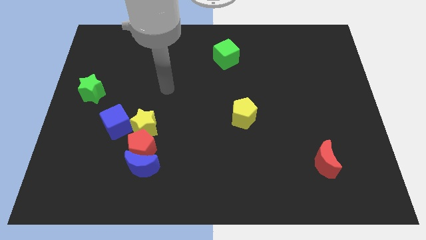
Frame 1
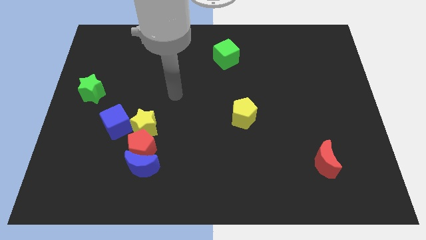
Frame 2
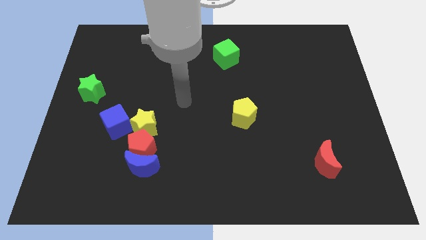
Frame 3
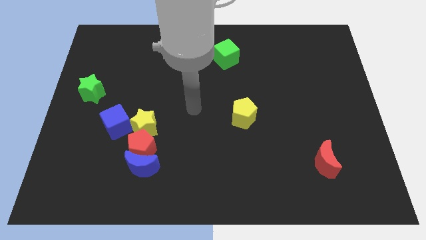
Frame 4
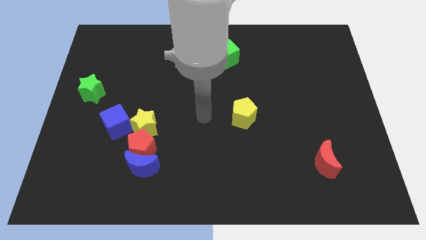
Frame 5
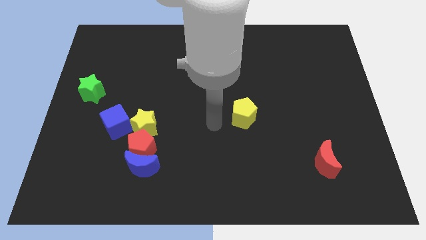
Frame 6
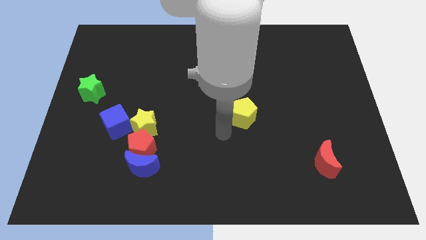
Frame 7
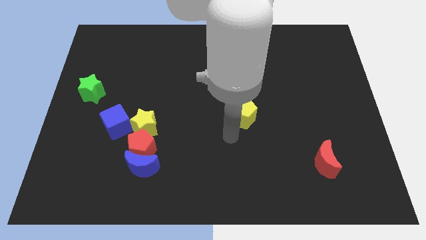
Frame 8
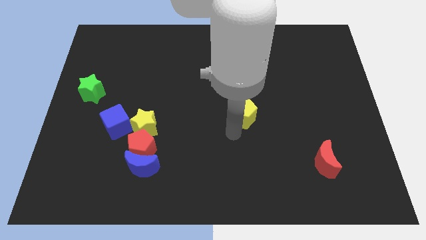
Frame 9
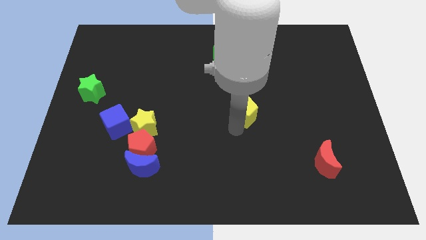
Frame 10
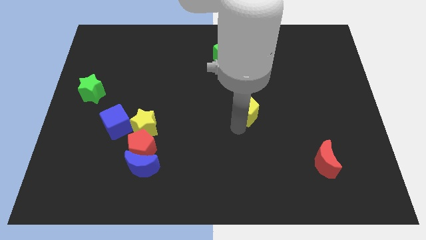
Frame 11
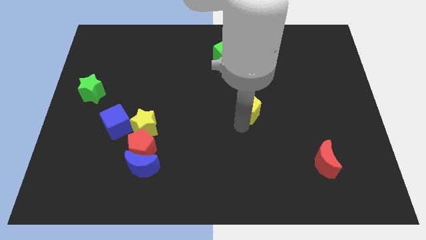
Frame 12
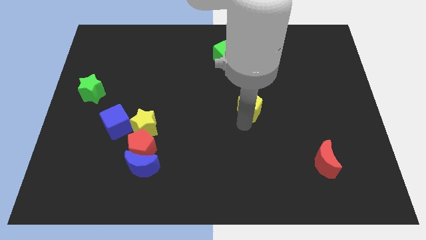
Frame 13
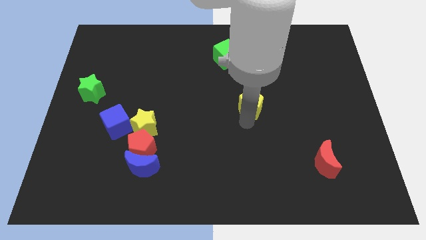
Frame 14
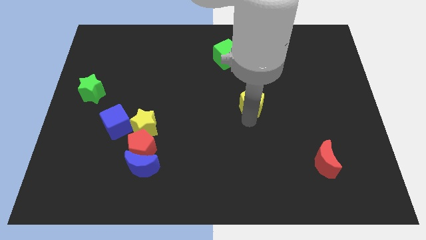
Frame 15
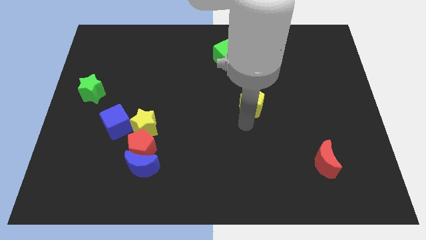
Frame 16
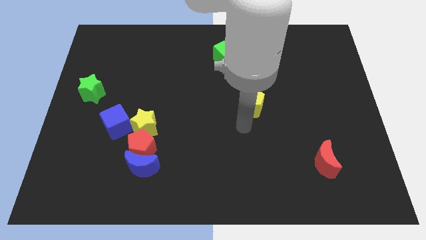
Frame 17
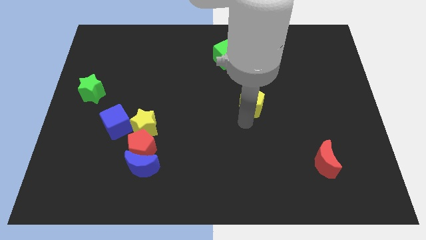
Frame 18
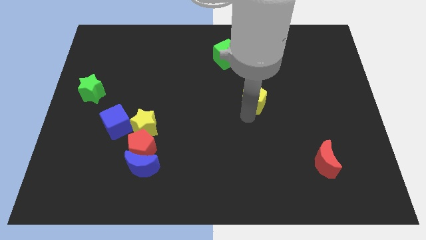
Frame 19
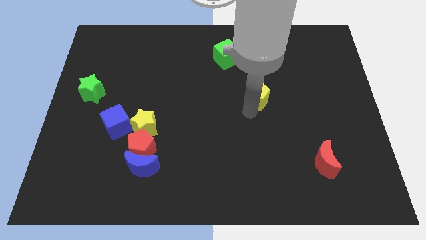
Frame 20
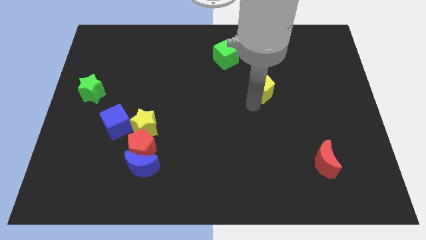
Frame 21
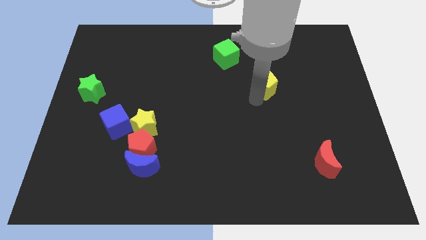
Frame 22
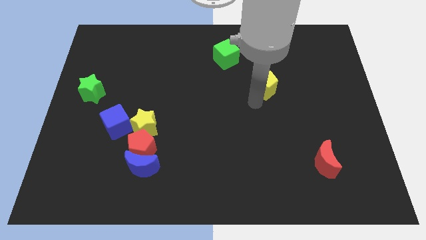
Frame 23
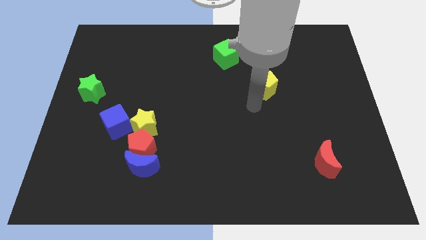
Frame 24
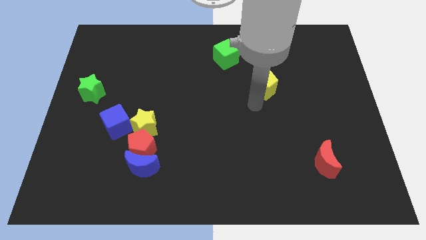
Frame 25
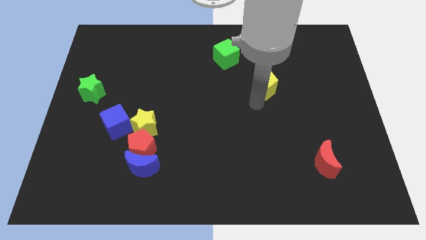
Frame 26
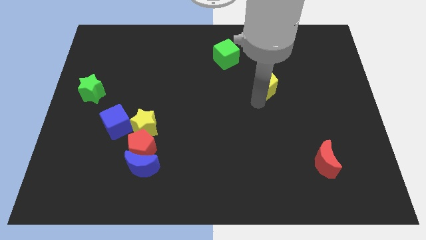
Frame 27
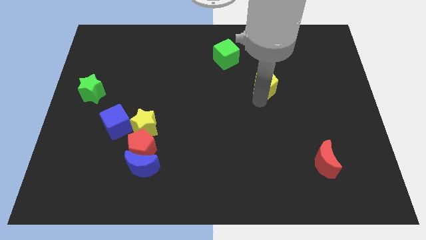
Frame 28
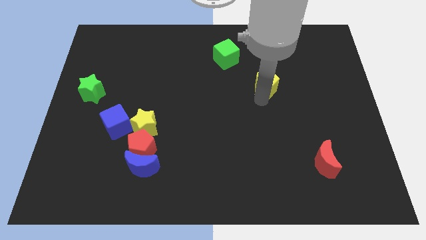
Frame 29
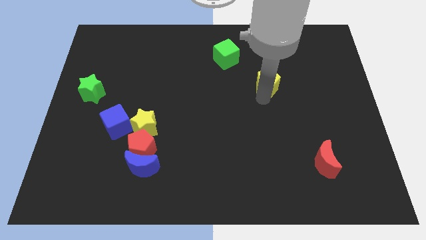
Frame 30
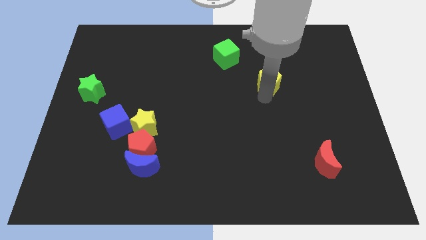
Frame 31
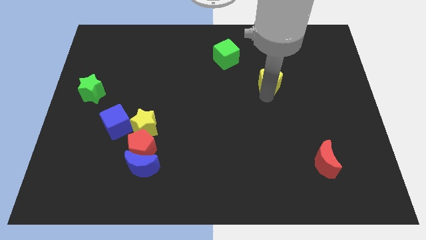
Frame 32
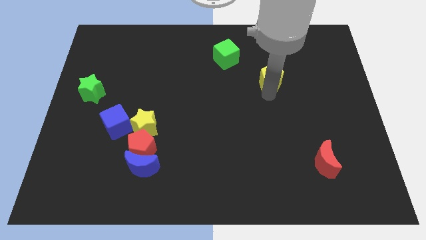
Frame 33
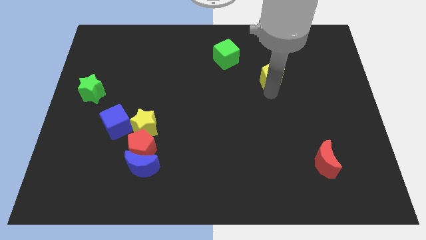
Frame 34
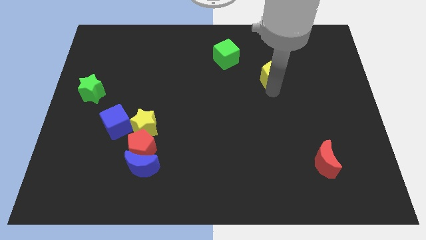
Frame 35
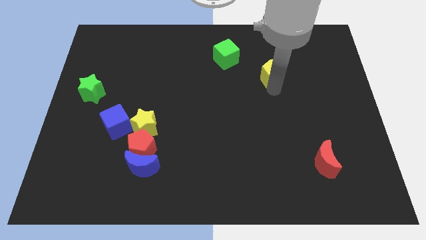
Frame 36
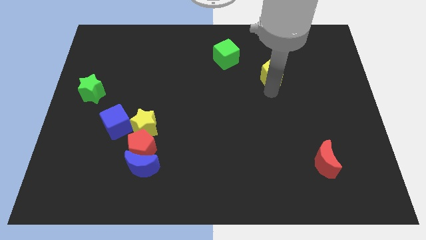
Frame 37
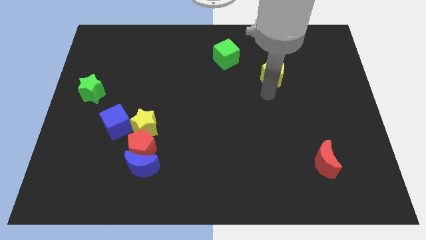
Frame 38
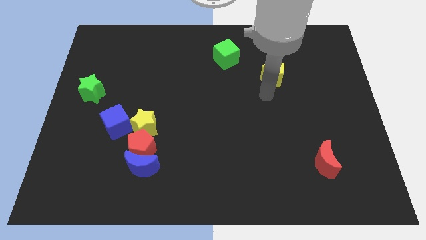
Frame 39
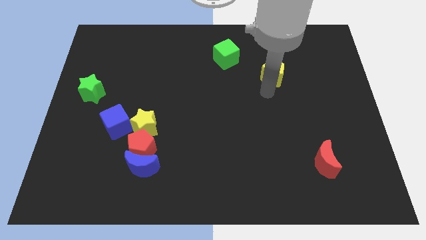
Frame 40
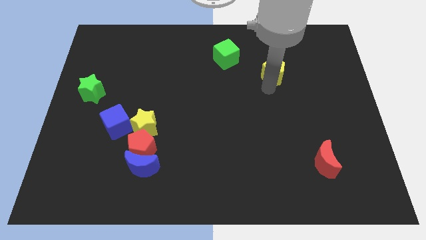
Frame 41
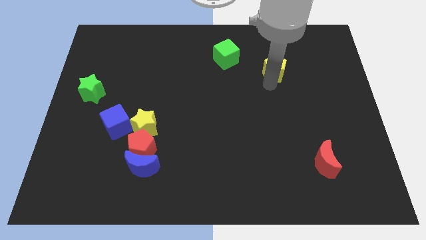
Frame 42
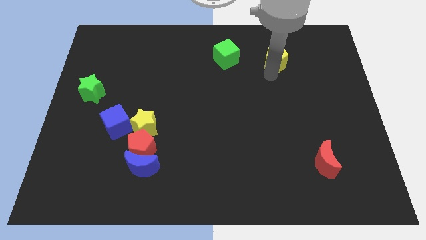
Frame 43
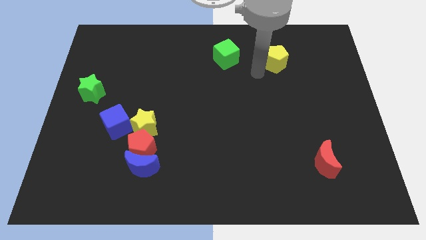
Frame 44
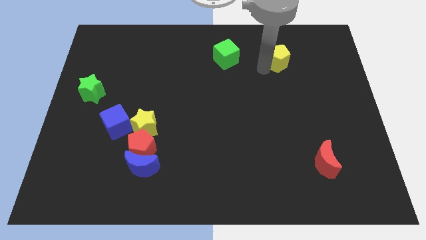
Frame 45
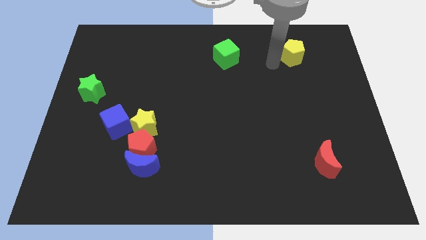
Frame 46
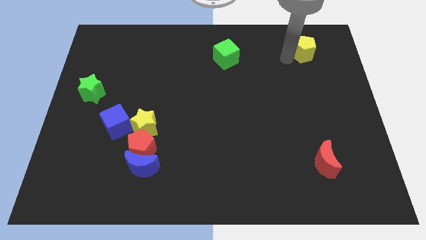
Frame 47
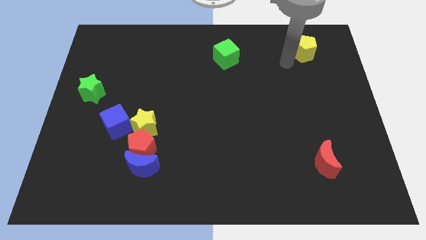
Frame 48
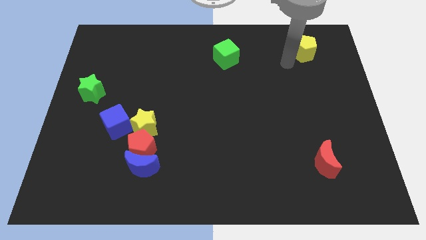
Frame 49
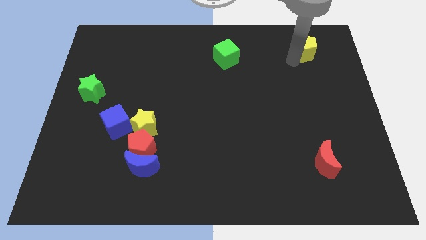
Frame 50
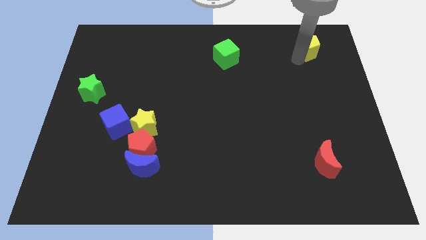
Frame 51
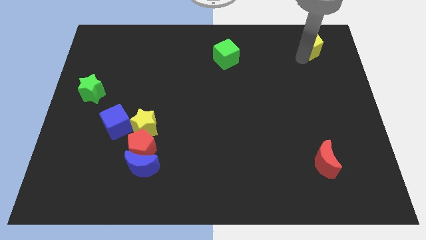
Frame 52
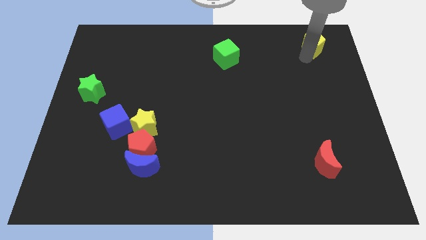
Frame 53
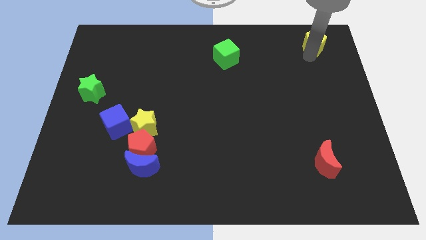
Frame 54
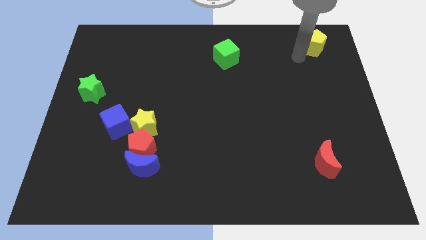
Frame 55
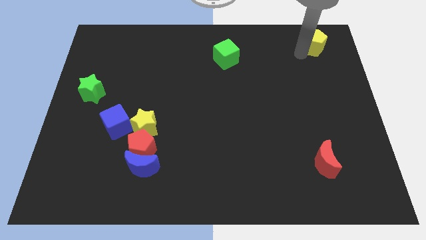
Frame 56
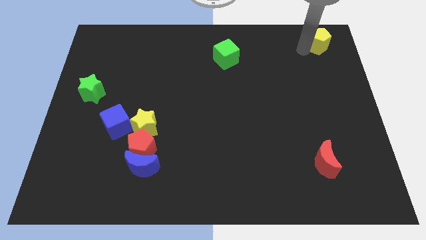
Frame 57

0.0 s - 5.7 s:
move the yellow pentagon to the top right corner

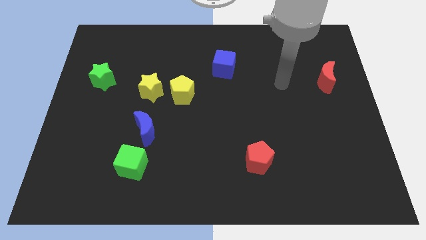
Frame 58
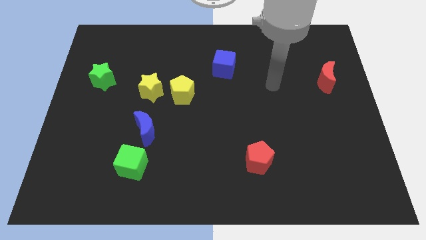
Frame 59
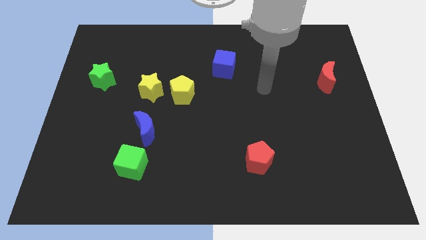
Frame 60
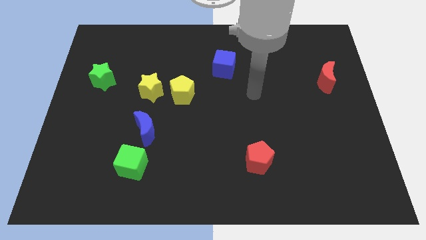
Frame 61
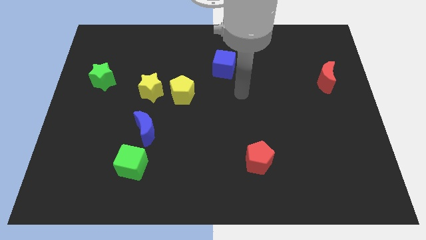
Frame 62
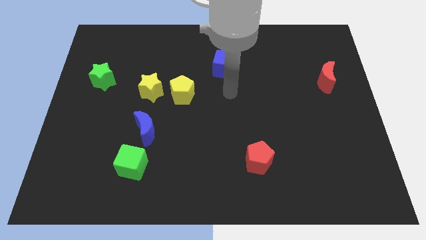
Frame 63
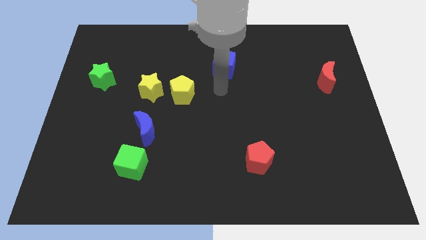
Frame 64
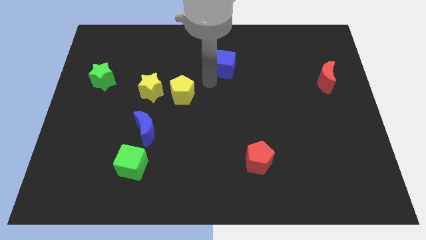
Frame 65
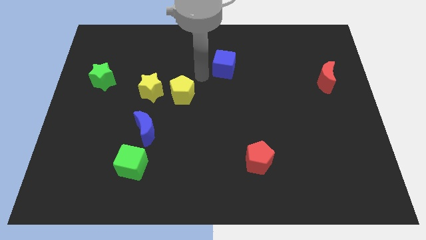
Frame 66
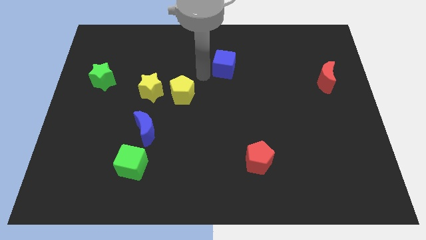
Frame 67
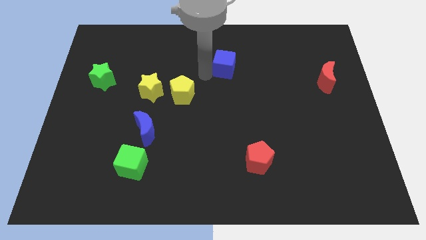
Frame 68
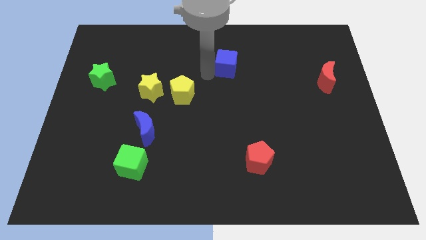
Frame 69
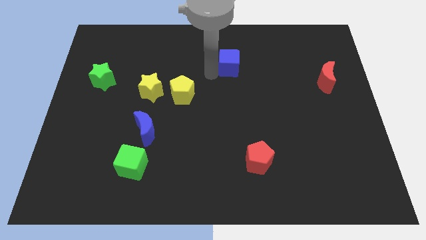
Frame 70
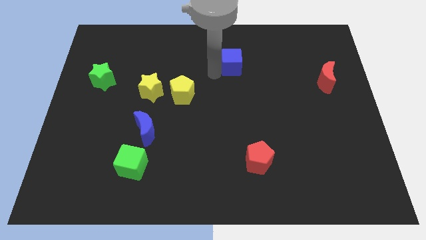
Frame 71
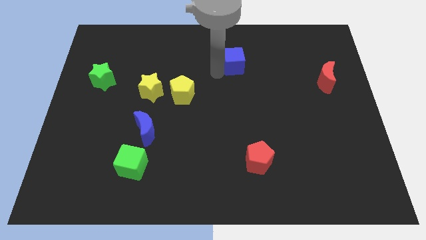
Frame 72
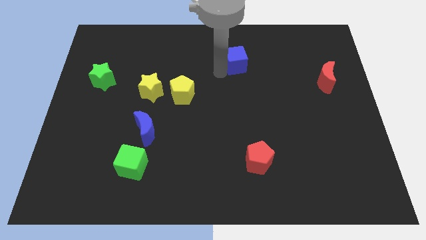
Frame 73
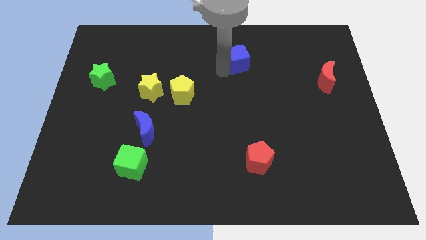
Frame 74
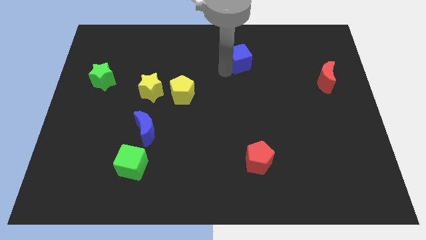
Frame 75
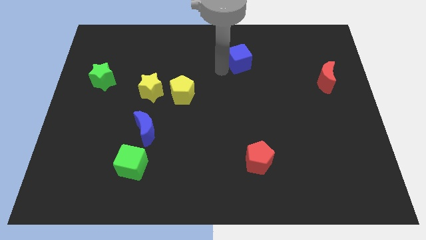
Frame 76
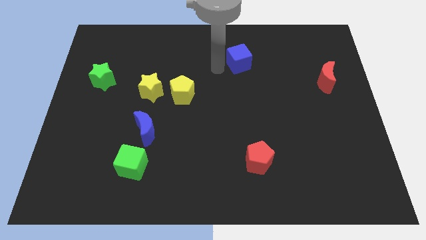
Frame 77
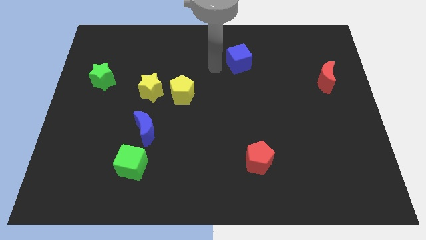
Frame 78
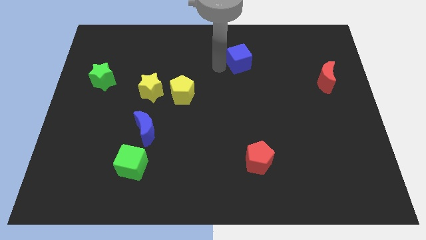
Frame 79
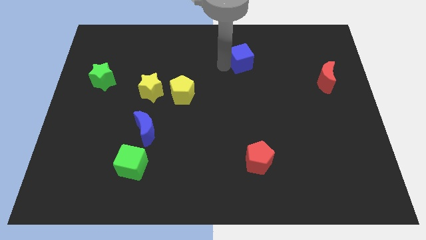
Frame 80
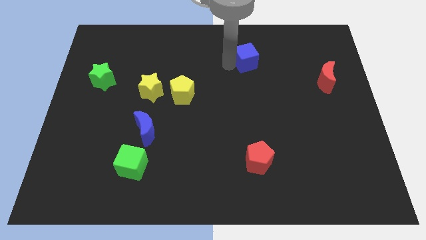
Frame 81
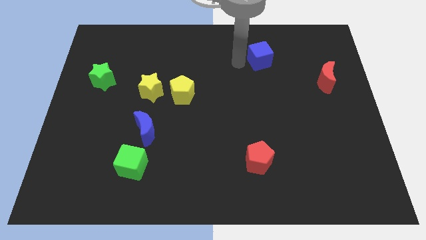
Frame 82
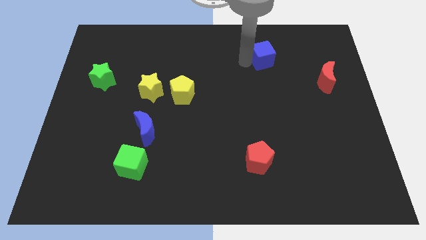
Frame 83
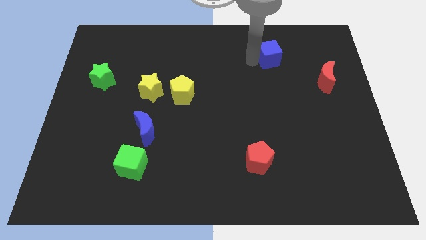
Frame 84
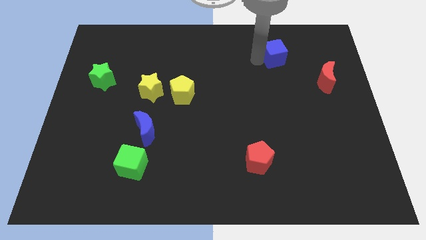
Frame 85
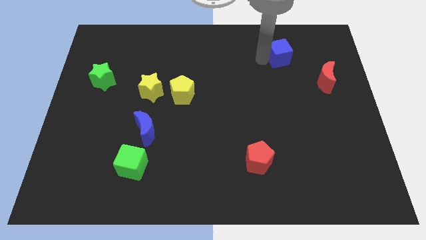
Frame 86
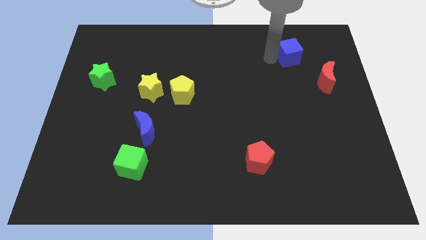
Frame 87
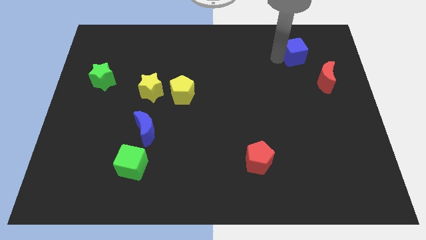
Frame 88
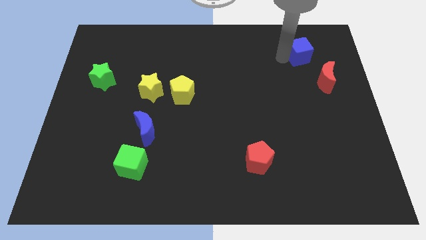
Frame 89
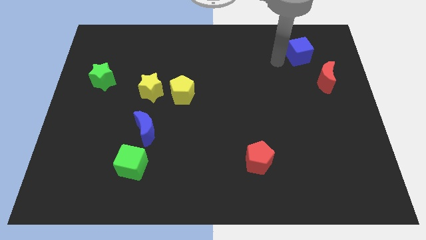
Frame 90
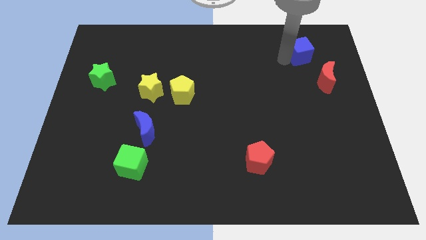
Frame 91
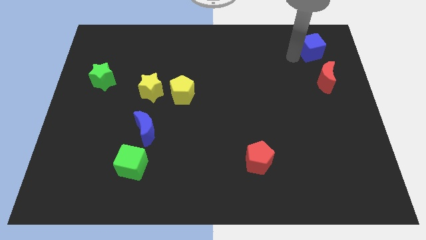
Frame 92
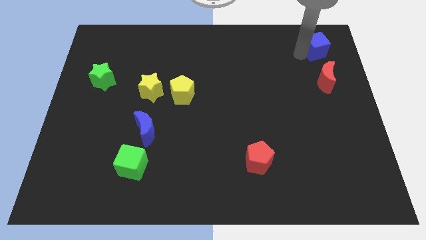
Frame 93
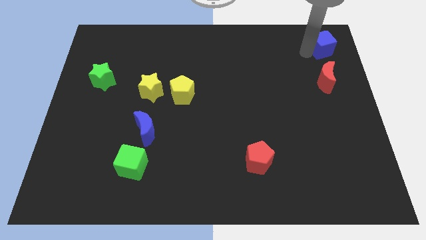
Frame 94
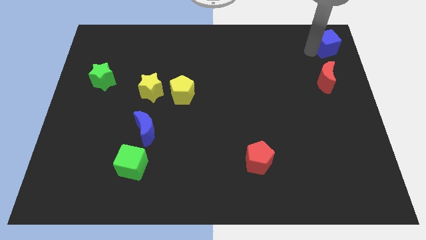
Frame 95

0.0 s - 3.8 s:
put the blue cube to the top right
